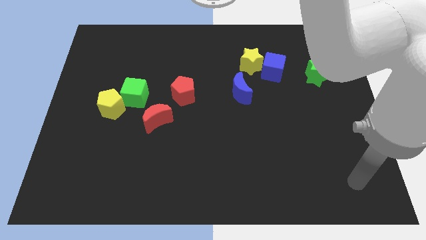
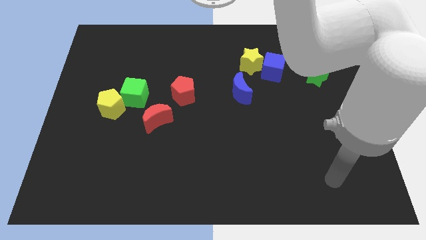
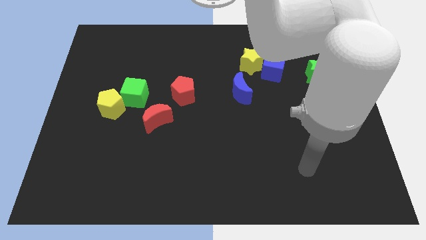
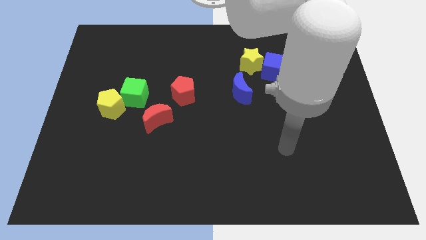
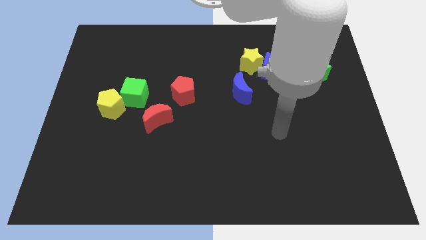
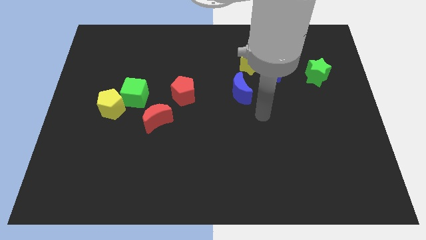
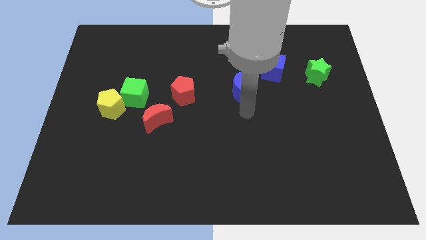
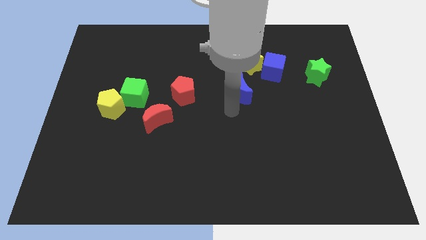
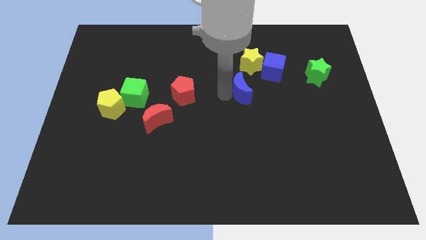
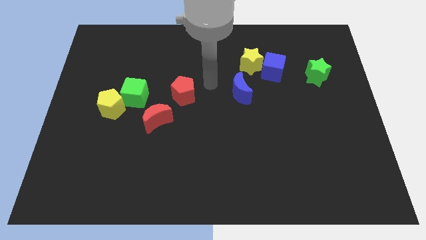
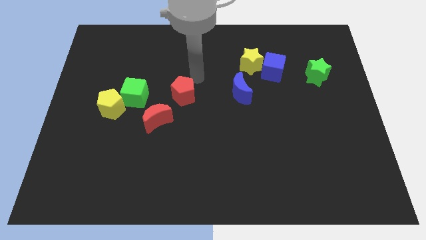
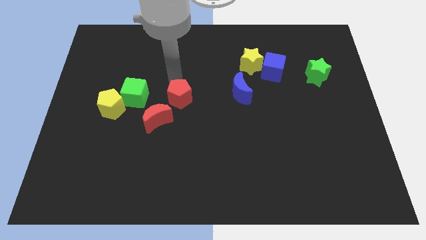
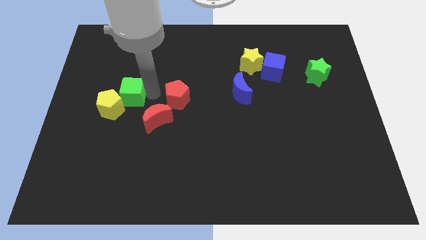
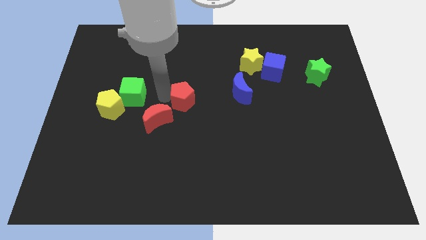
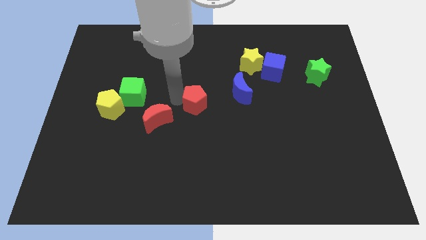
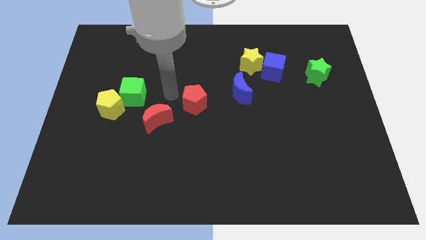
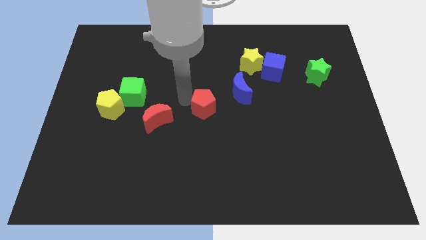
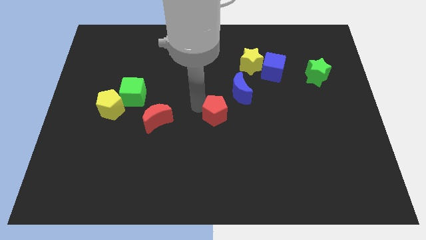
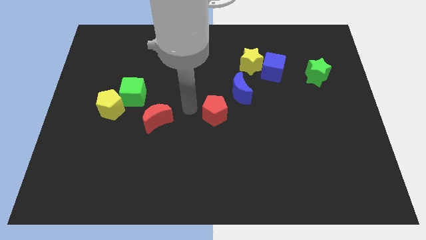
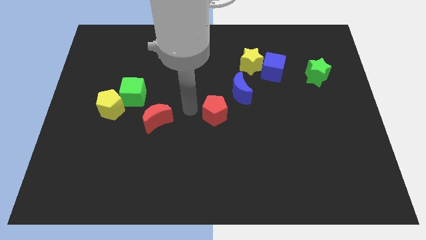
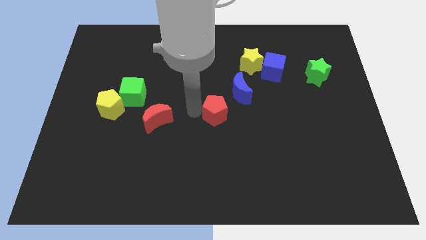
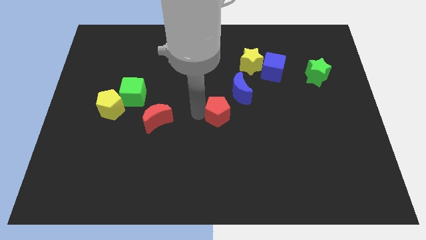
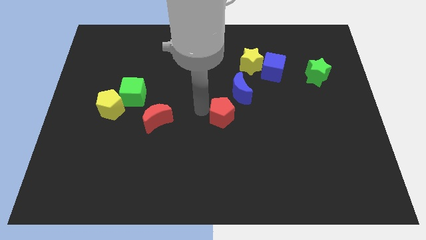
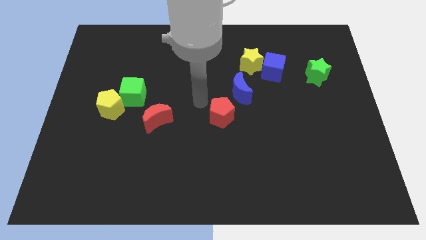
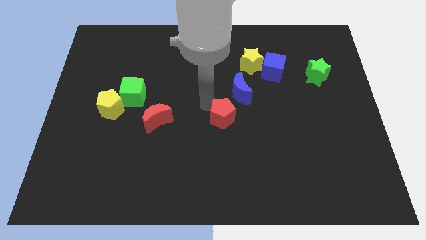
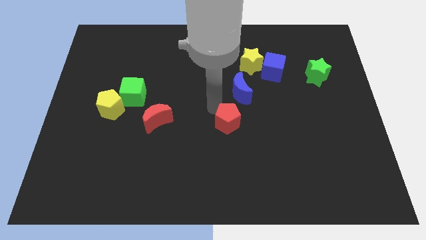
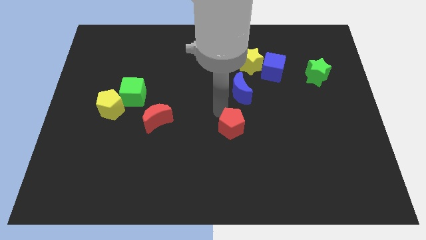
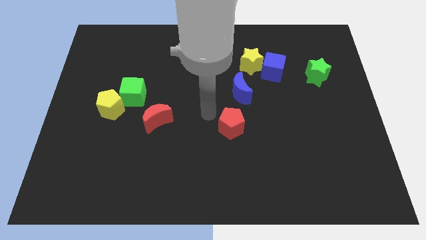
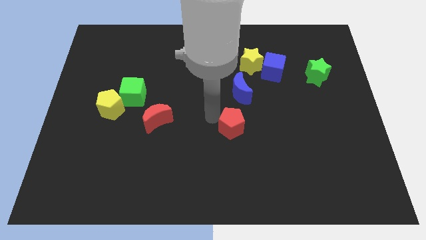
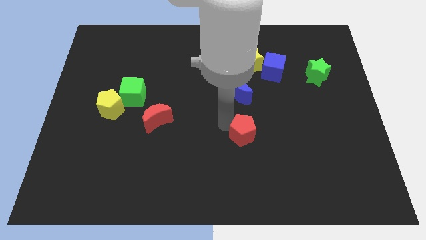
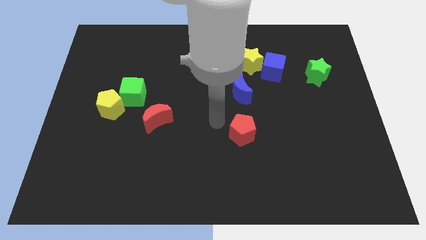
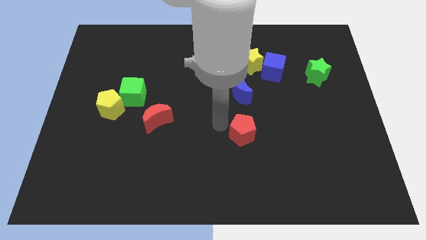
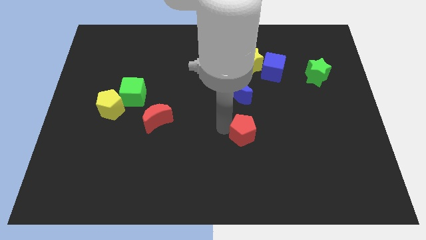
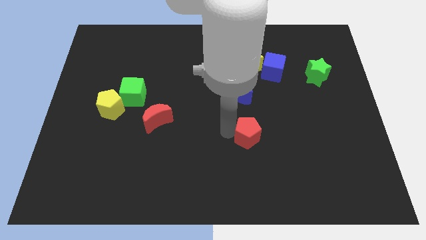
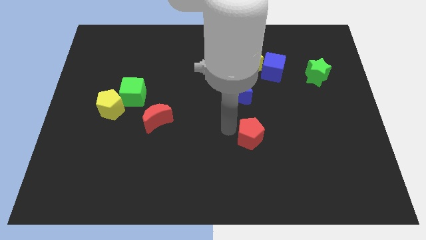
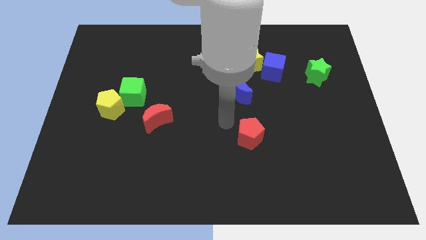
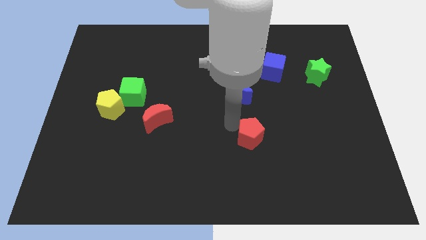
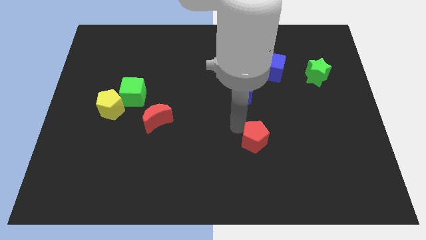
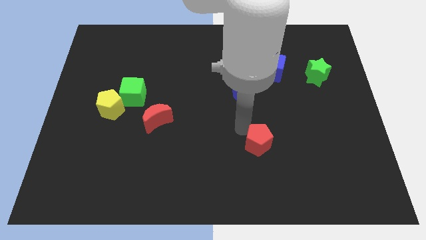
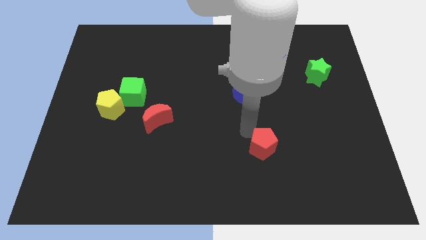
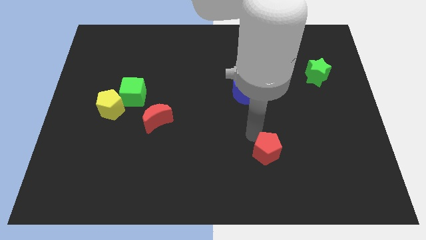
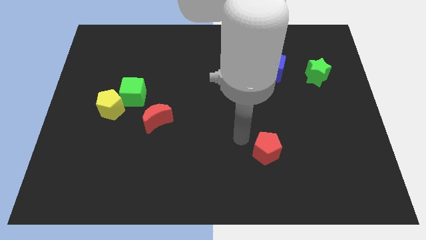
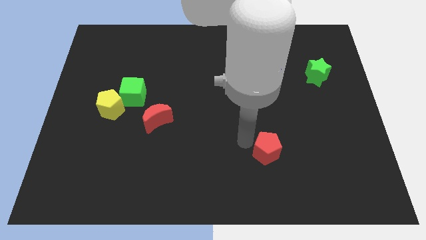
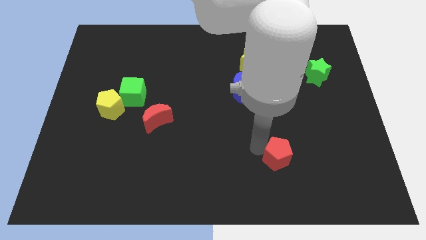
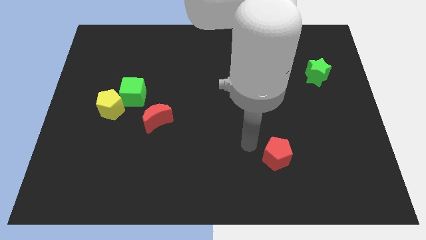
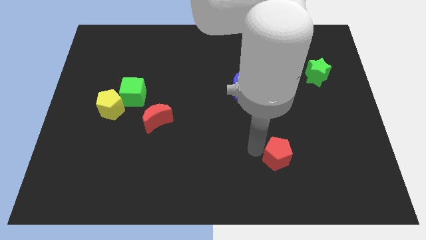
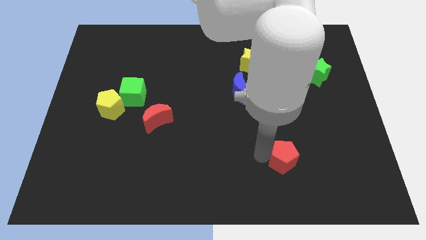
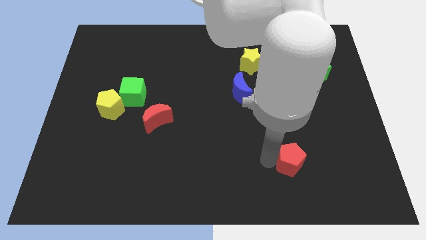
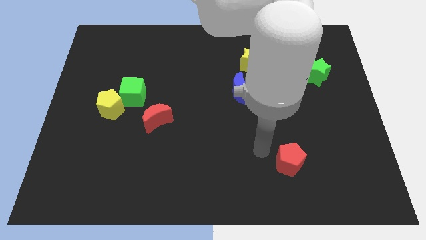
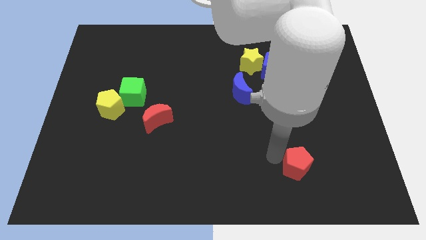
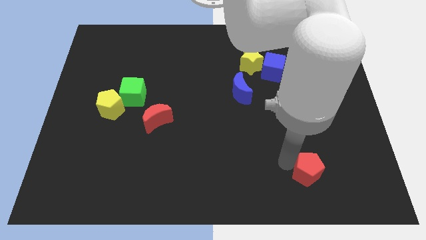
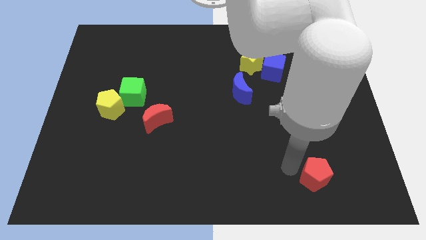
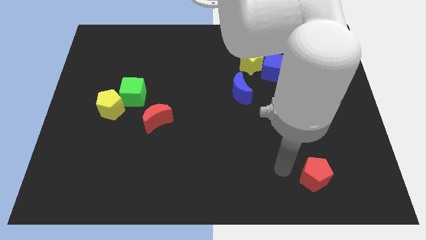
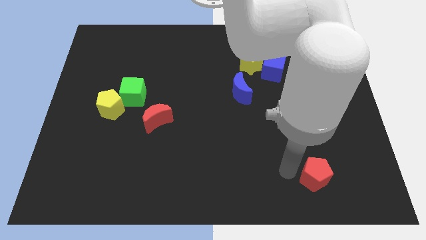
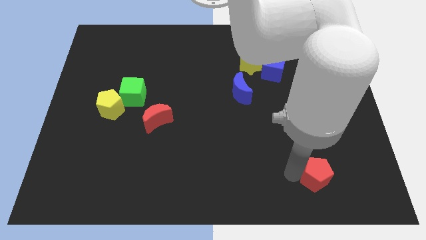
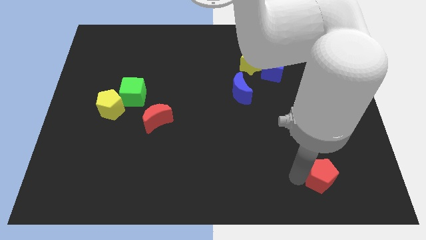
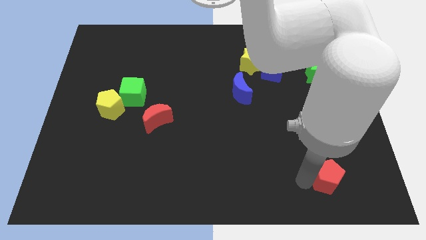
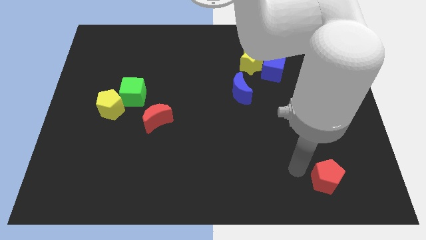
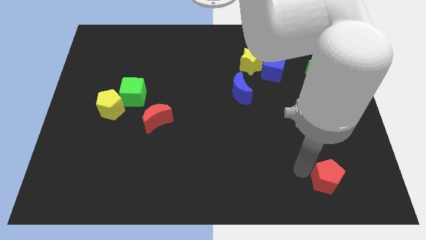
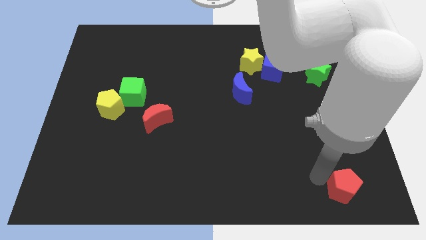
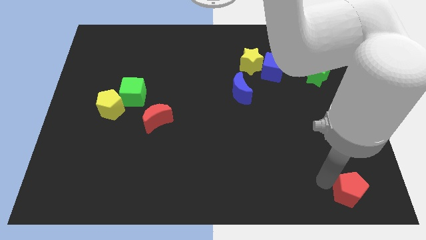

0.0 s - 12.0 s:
slide the red pentagon to the bottom right of the board

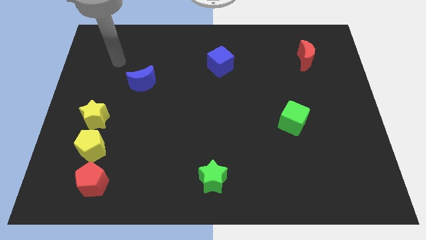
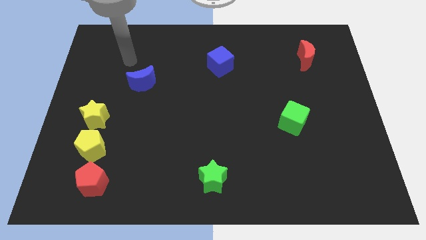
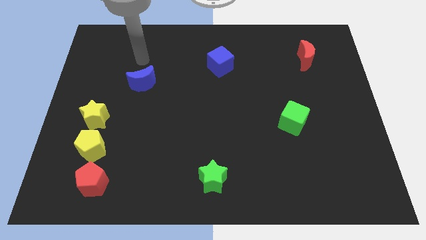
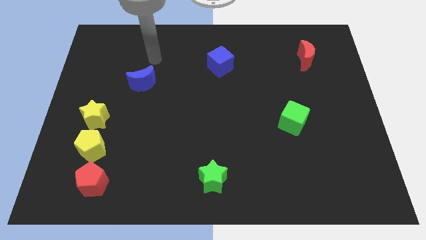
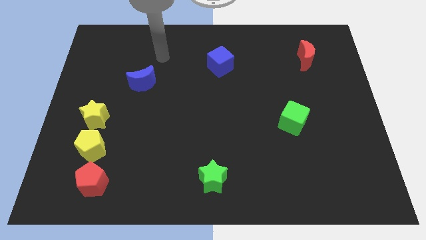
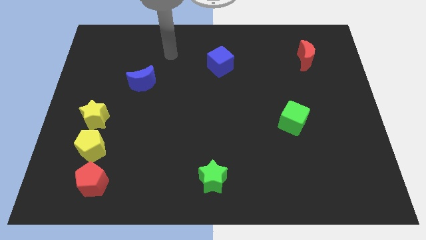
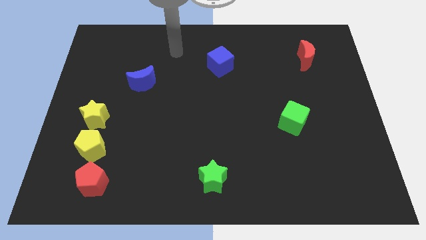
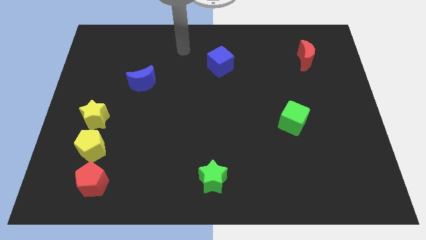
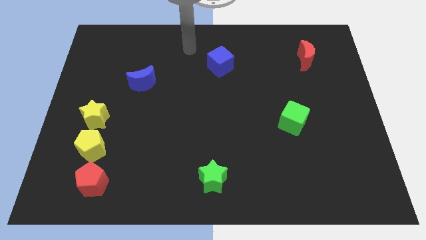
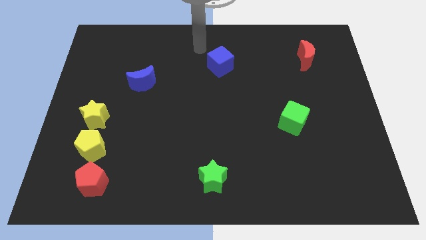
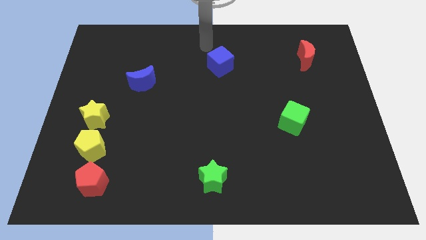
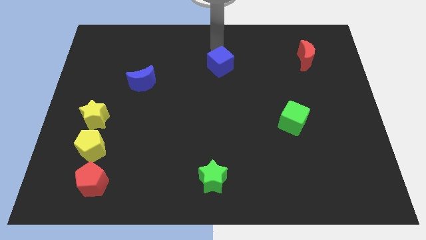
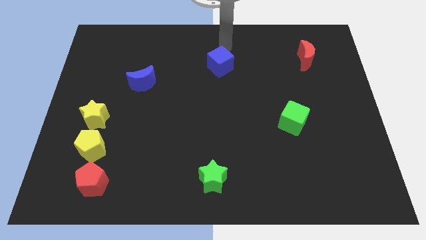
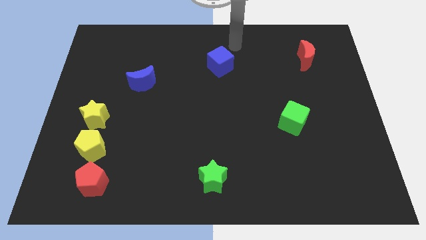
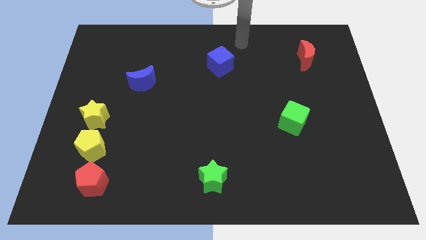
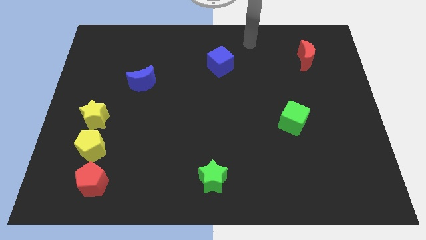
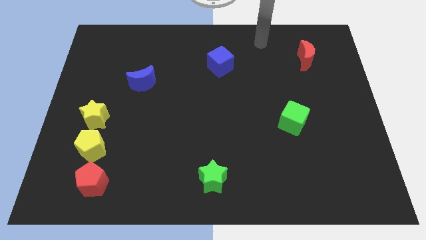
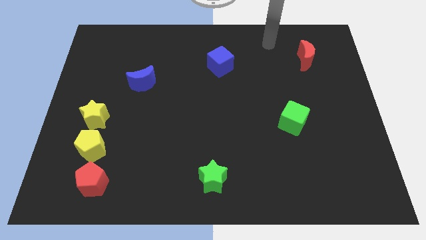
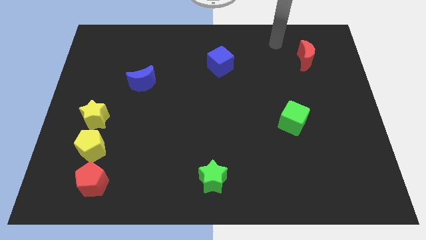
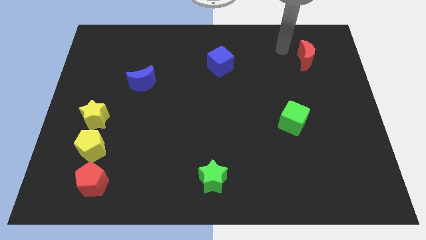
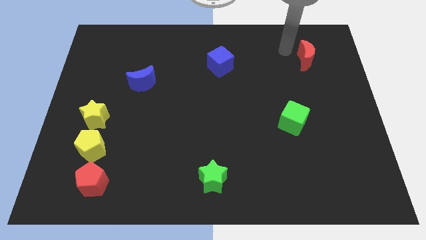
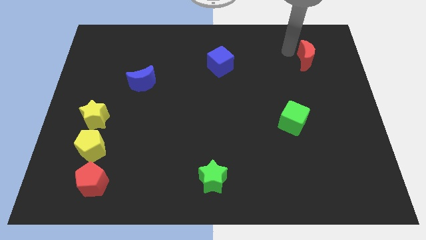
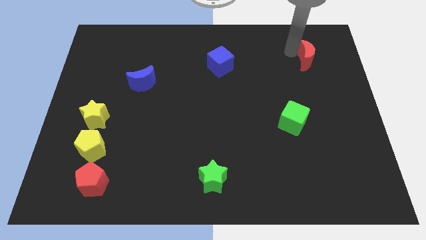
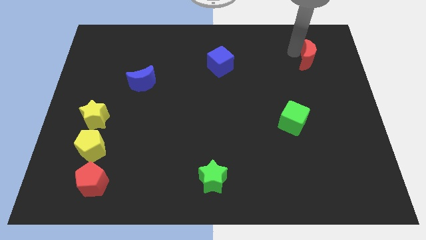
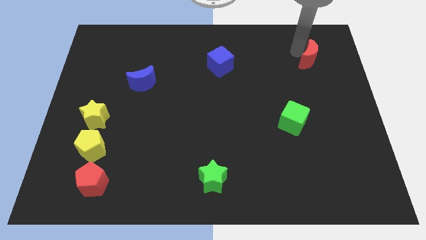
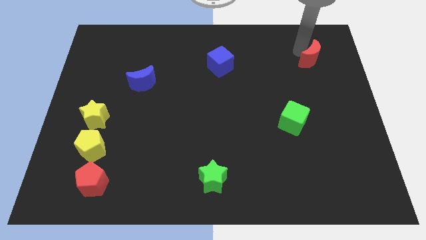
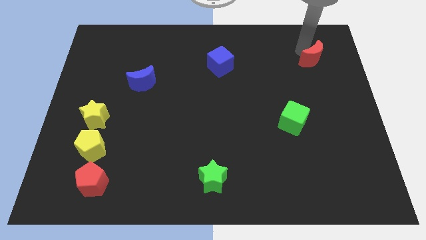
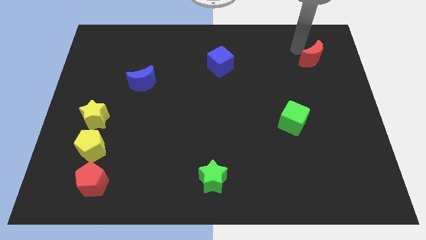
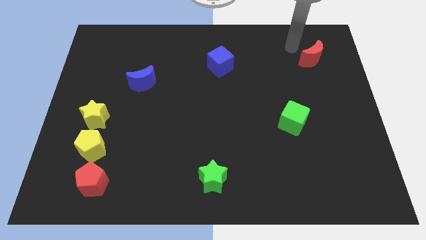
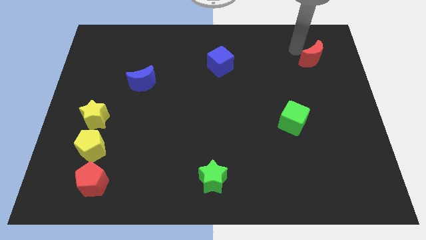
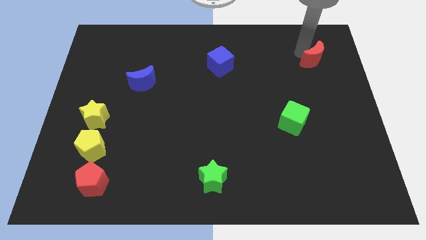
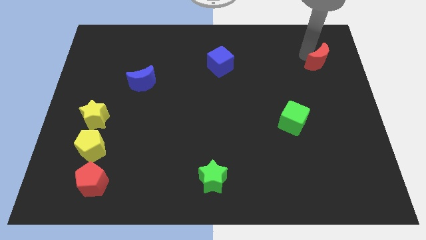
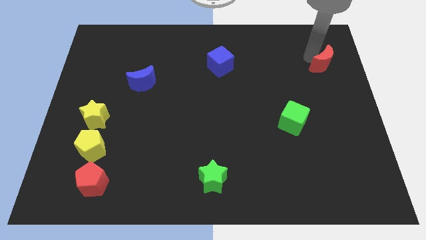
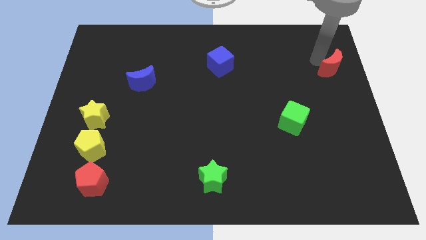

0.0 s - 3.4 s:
slide the red moon to the right side of the board
